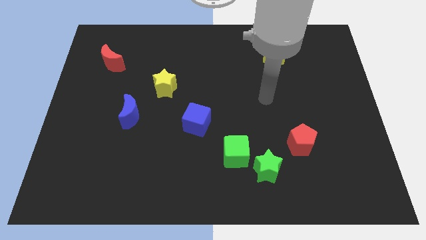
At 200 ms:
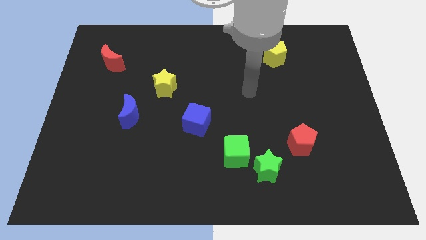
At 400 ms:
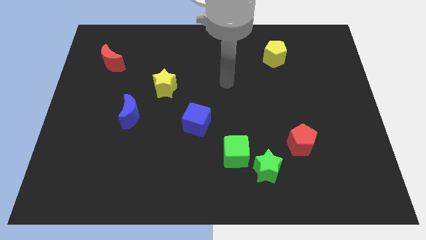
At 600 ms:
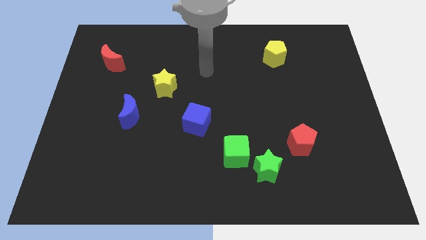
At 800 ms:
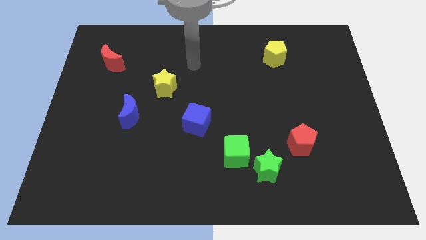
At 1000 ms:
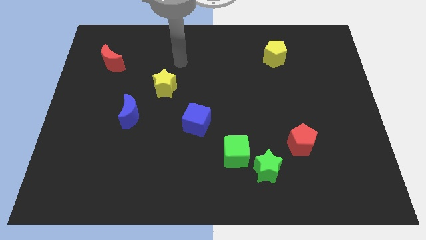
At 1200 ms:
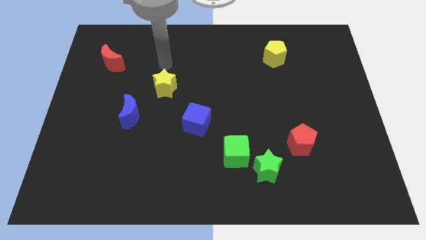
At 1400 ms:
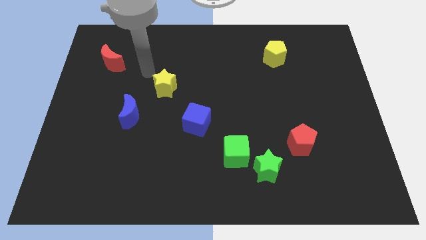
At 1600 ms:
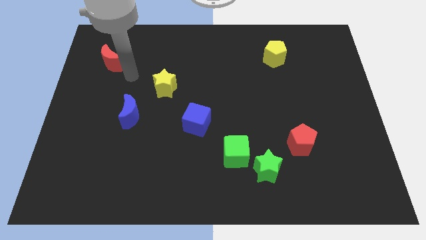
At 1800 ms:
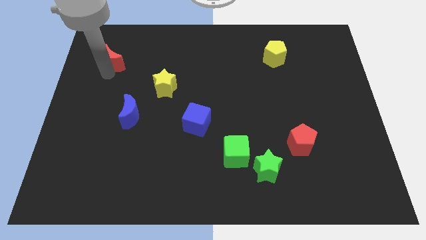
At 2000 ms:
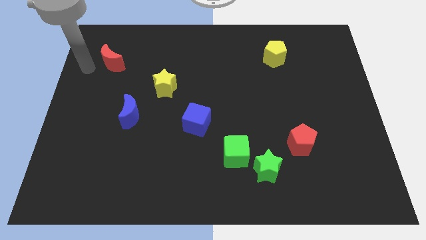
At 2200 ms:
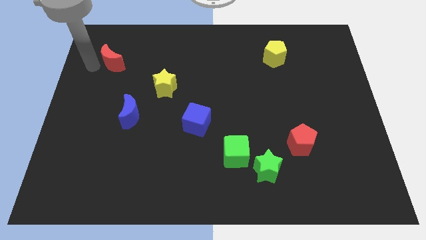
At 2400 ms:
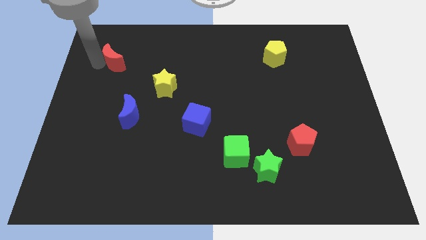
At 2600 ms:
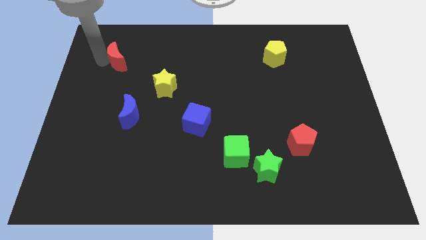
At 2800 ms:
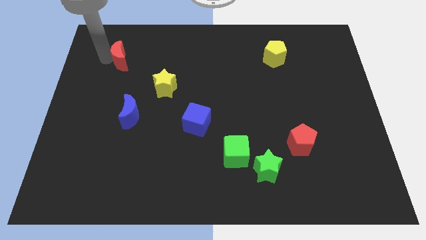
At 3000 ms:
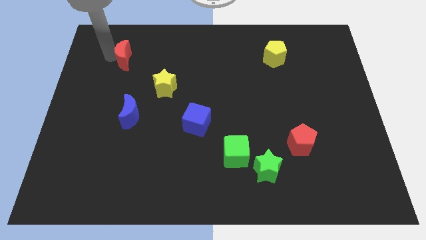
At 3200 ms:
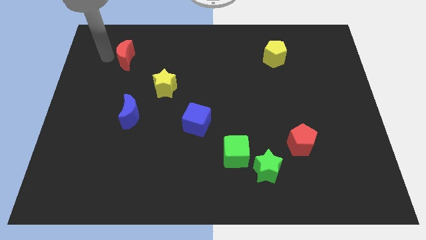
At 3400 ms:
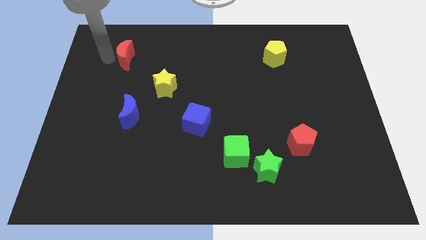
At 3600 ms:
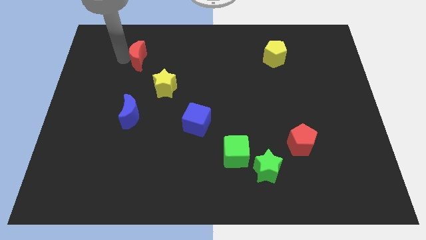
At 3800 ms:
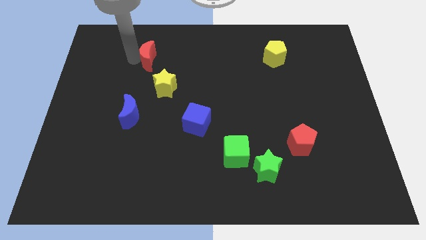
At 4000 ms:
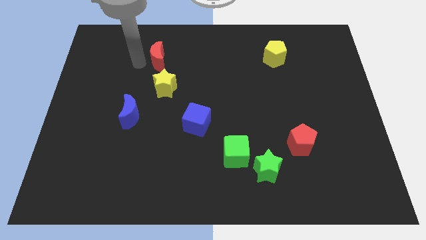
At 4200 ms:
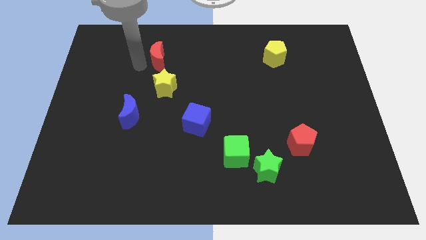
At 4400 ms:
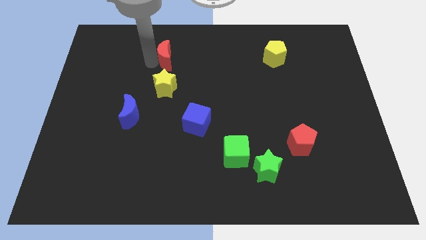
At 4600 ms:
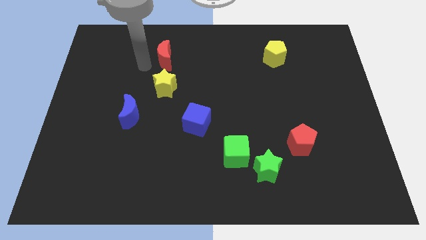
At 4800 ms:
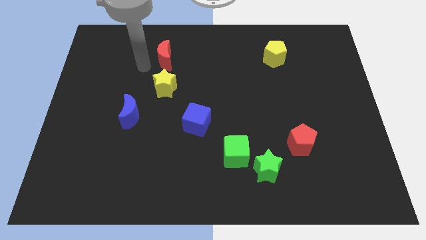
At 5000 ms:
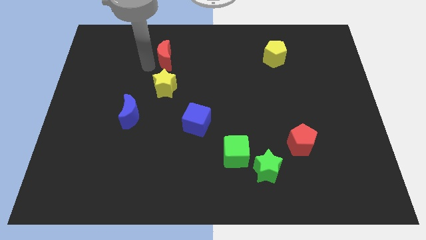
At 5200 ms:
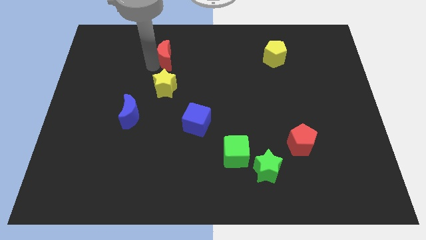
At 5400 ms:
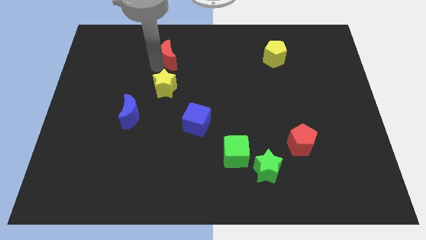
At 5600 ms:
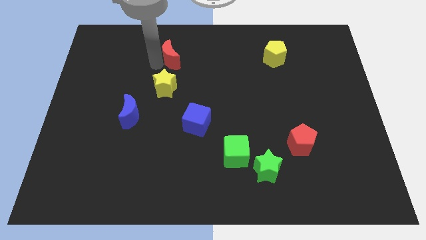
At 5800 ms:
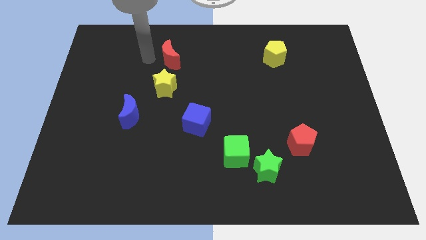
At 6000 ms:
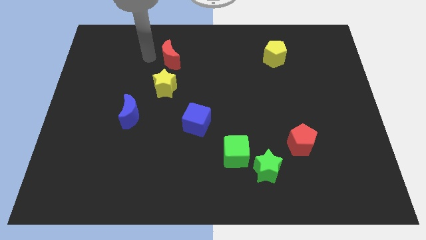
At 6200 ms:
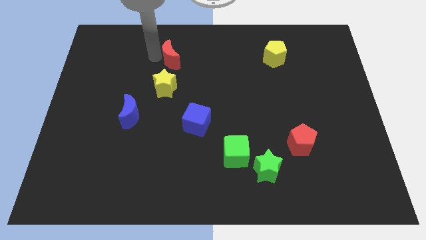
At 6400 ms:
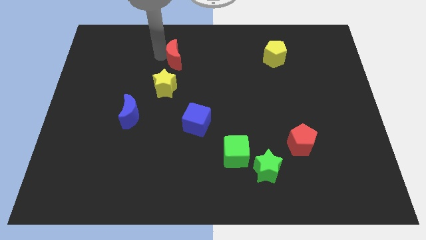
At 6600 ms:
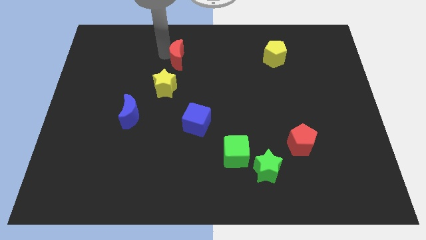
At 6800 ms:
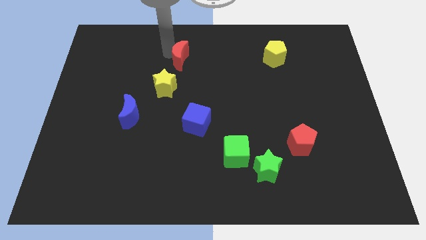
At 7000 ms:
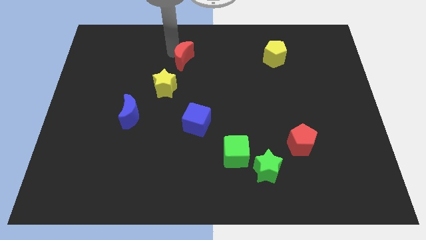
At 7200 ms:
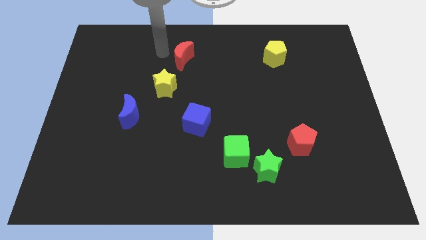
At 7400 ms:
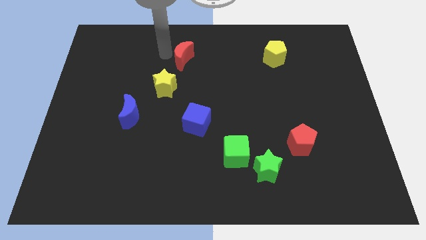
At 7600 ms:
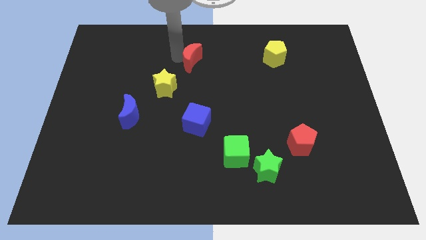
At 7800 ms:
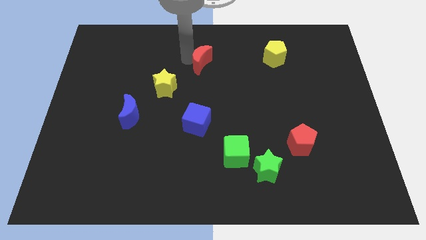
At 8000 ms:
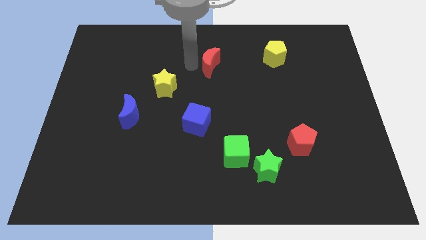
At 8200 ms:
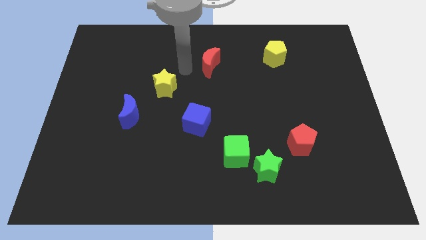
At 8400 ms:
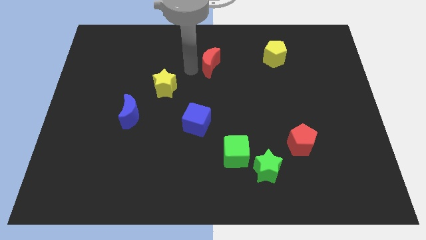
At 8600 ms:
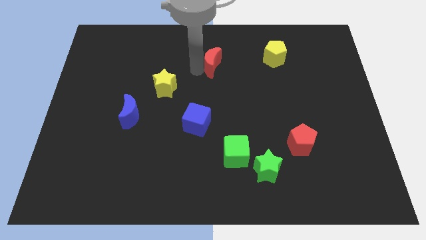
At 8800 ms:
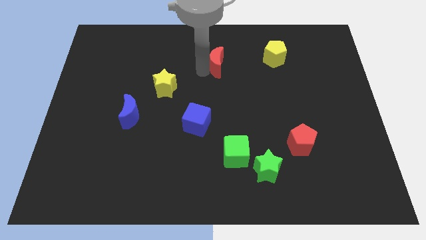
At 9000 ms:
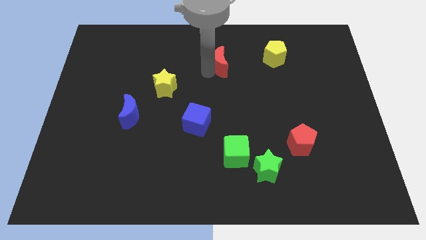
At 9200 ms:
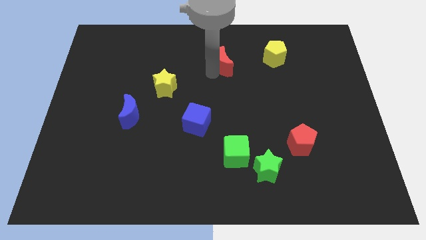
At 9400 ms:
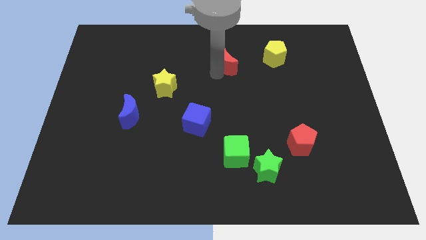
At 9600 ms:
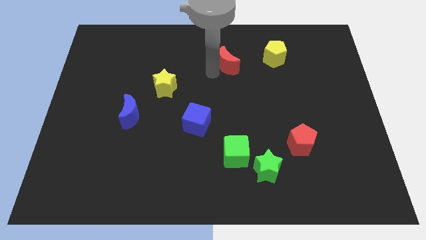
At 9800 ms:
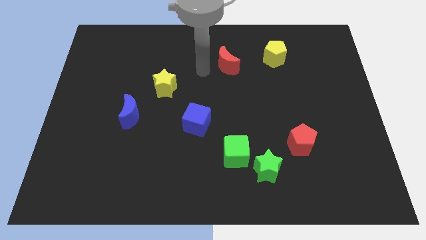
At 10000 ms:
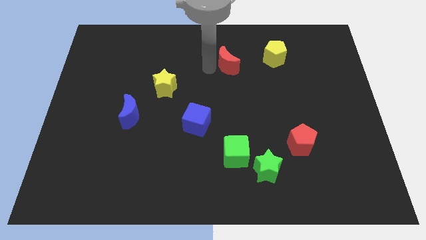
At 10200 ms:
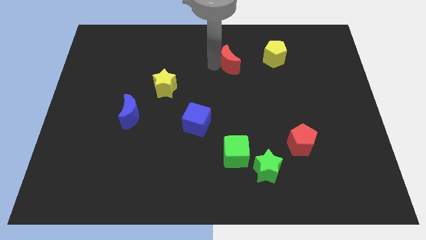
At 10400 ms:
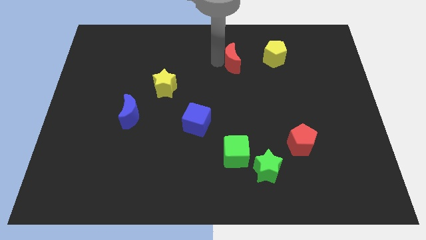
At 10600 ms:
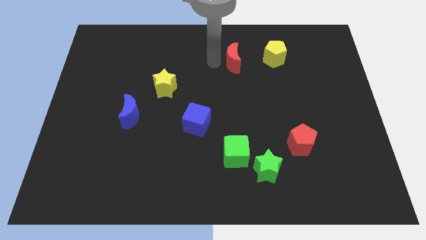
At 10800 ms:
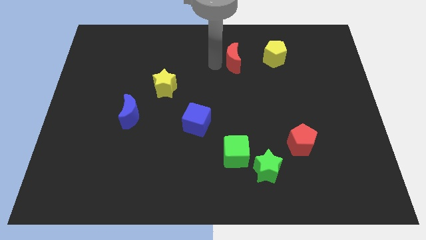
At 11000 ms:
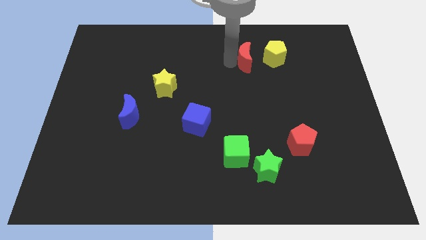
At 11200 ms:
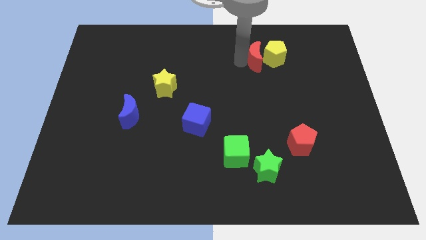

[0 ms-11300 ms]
slide the red moon towards the yellow pentagon

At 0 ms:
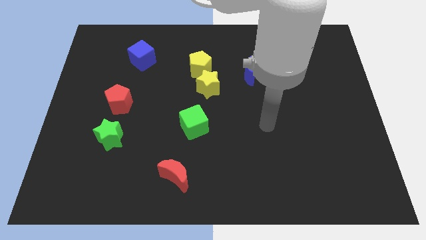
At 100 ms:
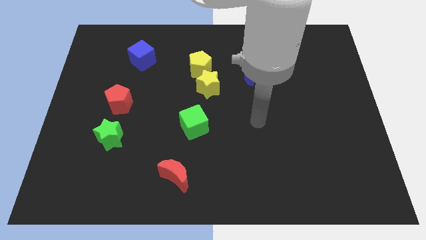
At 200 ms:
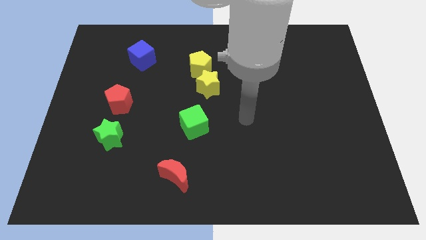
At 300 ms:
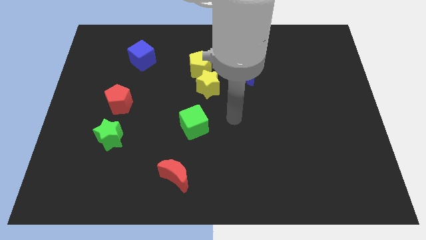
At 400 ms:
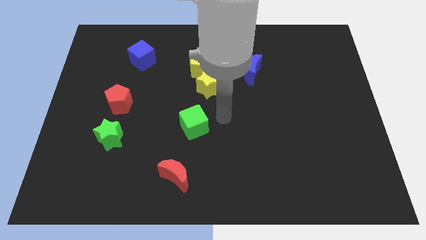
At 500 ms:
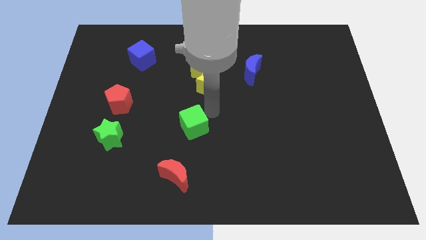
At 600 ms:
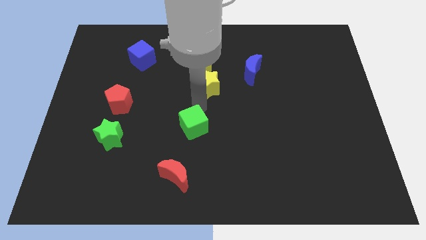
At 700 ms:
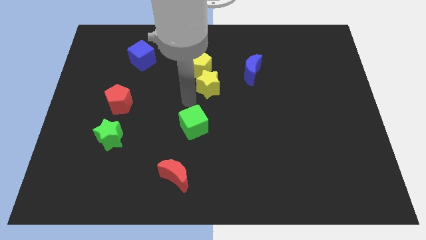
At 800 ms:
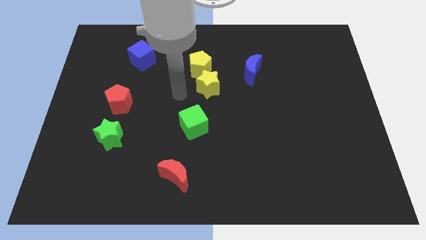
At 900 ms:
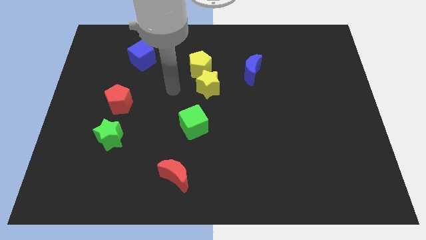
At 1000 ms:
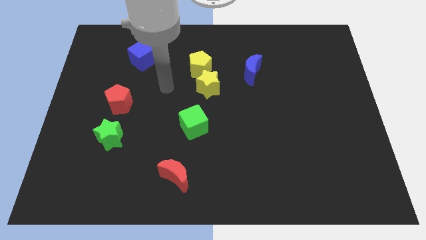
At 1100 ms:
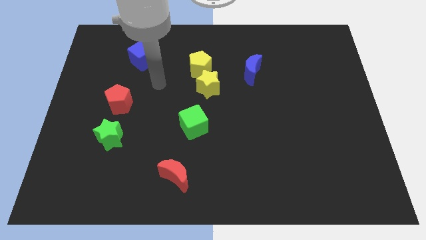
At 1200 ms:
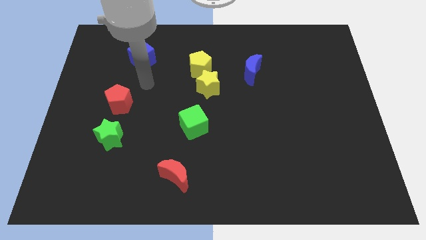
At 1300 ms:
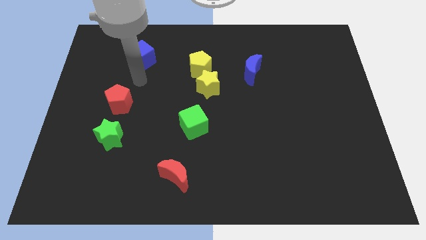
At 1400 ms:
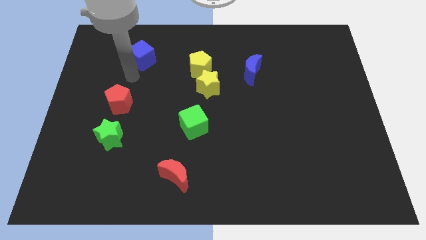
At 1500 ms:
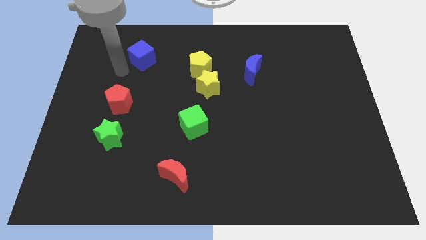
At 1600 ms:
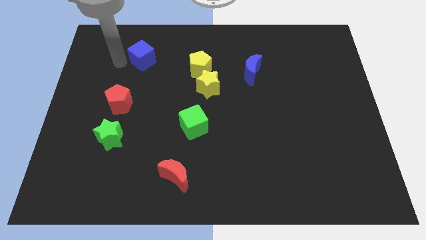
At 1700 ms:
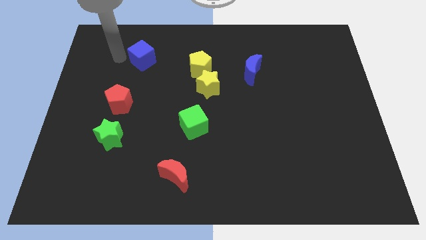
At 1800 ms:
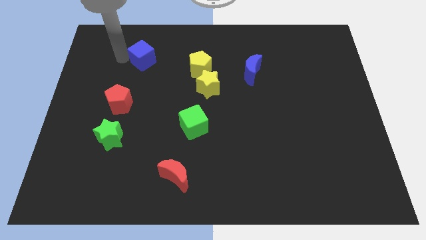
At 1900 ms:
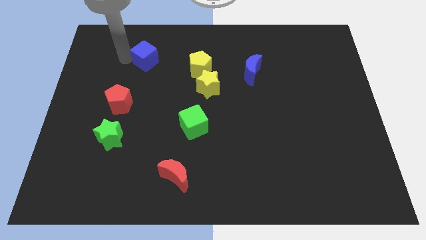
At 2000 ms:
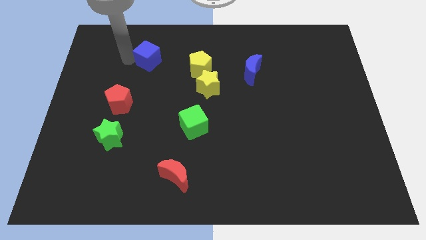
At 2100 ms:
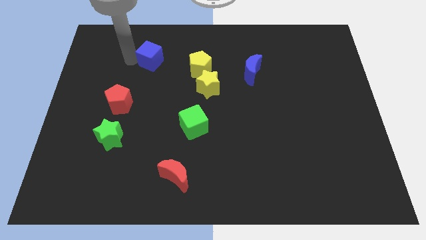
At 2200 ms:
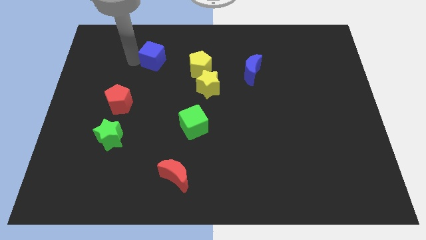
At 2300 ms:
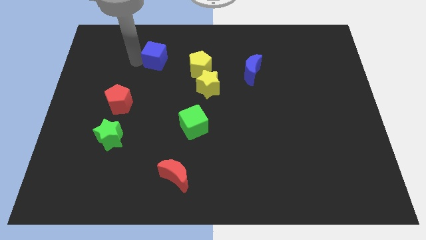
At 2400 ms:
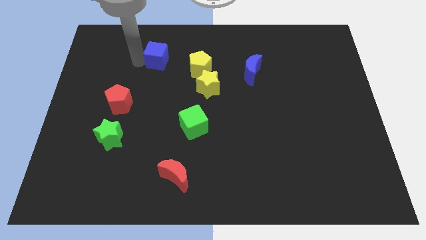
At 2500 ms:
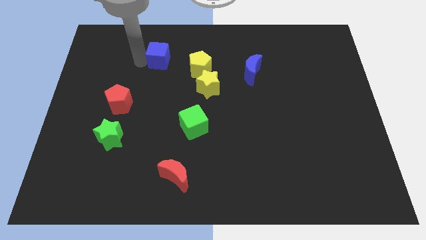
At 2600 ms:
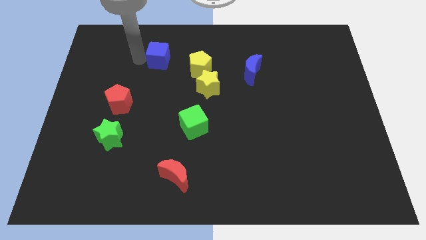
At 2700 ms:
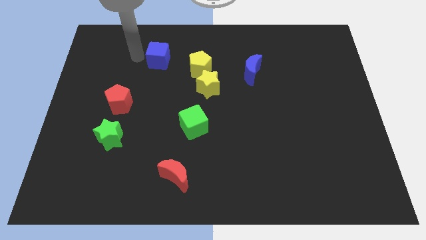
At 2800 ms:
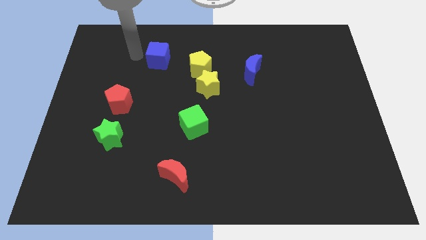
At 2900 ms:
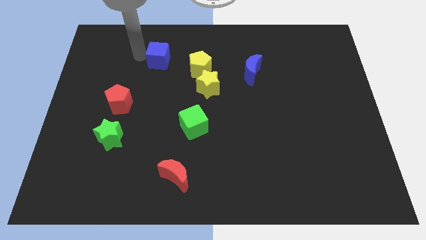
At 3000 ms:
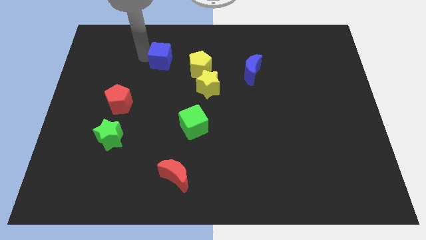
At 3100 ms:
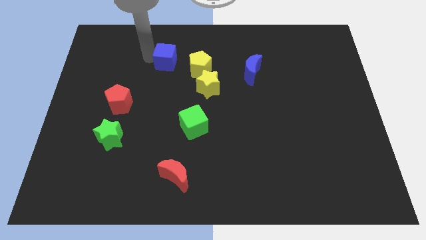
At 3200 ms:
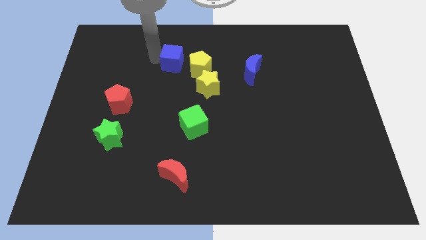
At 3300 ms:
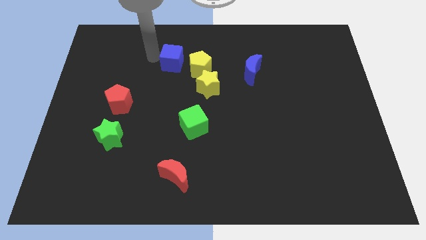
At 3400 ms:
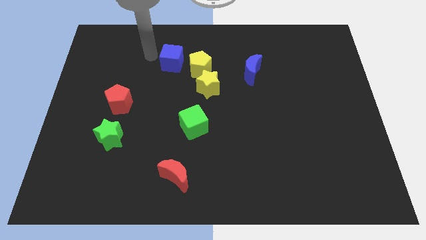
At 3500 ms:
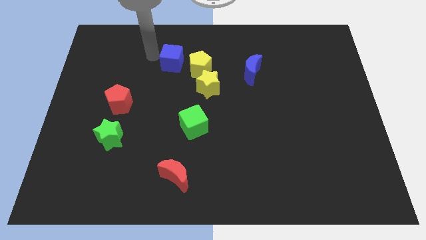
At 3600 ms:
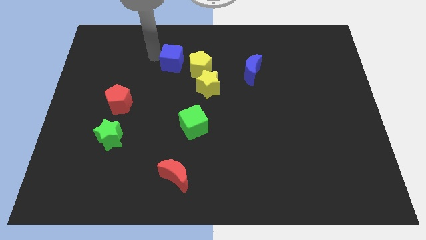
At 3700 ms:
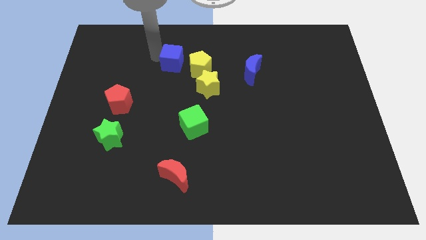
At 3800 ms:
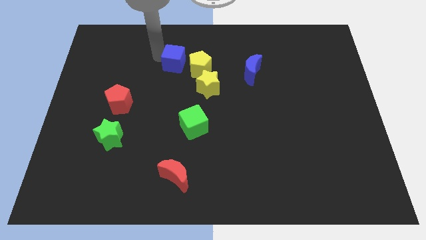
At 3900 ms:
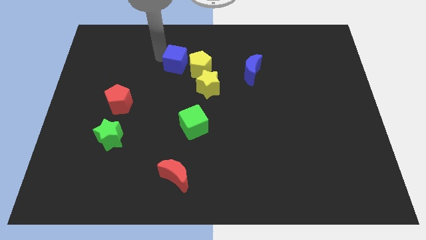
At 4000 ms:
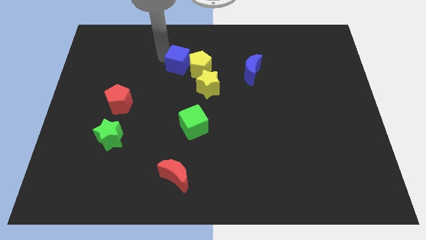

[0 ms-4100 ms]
slide the blue cube close to the yellow pentagon
